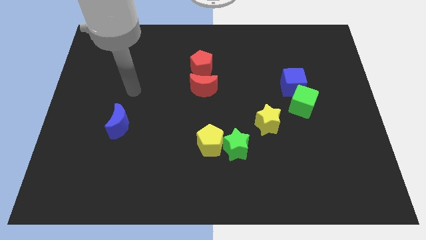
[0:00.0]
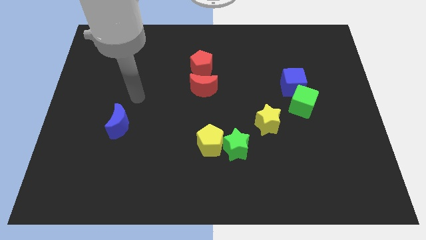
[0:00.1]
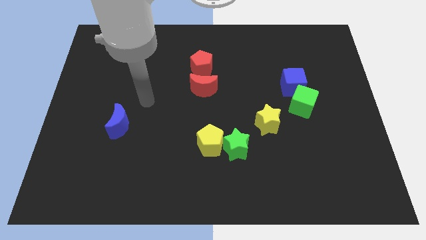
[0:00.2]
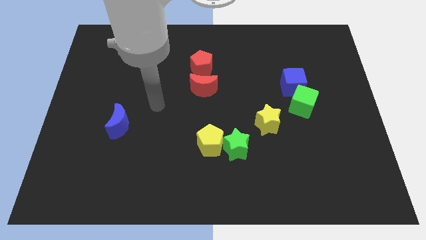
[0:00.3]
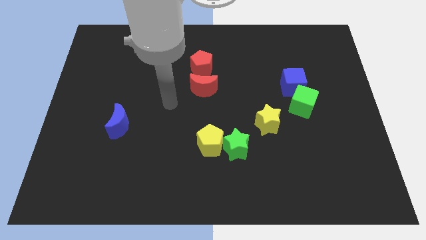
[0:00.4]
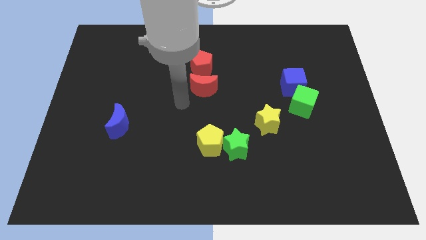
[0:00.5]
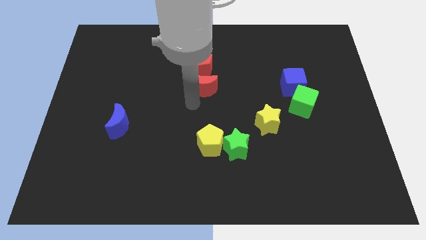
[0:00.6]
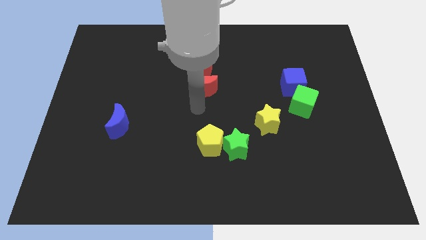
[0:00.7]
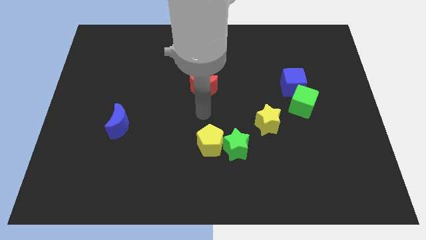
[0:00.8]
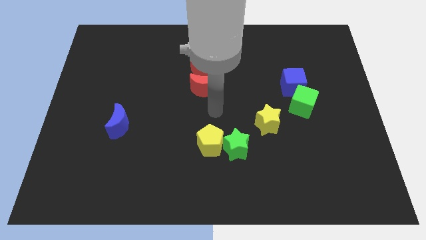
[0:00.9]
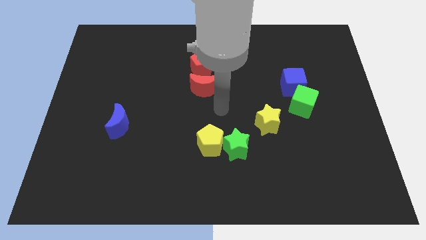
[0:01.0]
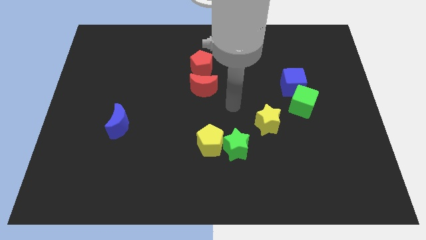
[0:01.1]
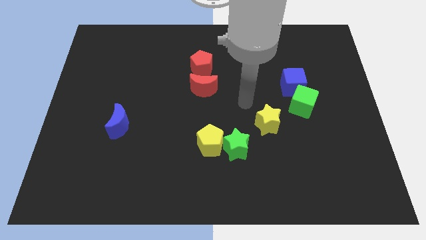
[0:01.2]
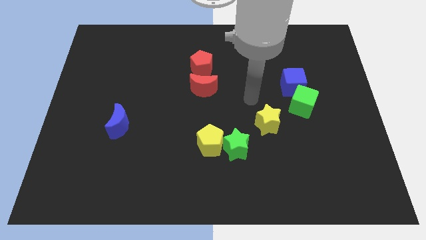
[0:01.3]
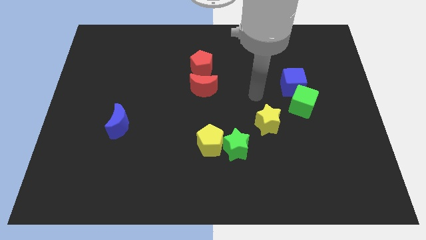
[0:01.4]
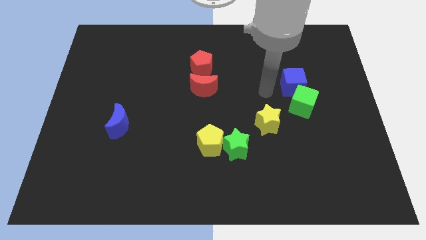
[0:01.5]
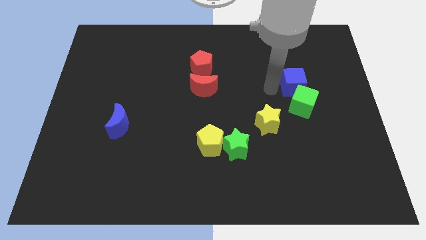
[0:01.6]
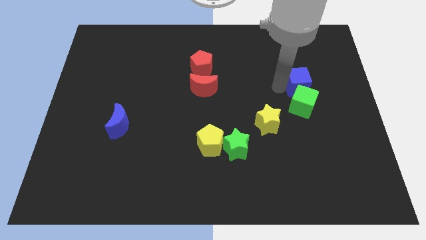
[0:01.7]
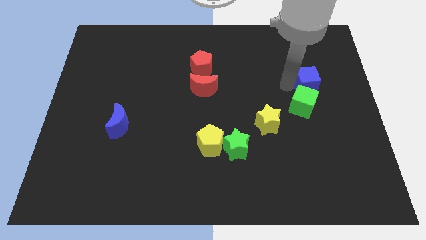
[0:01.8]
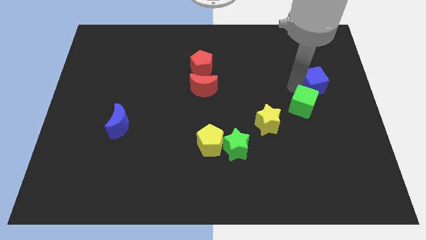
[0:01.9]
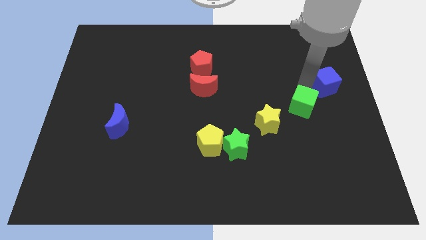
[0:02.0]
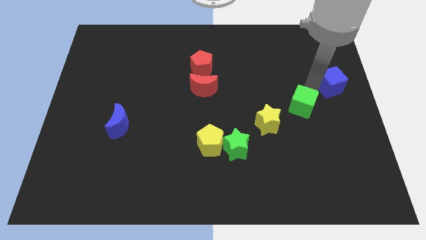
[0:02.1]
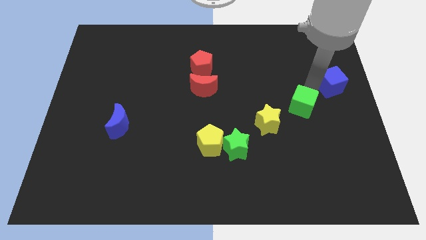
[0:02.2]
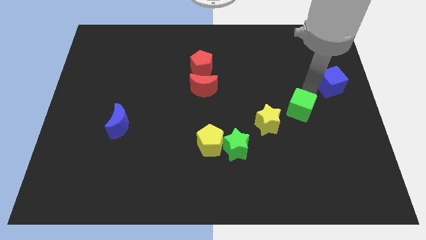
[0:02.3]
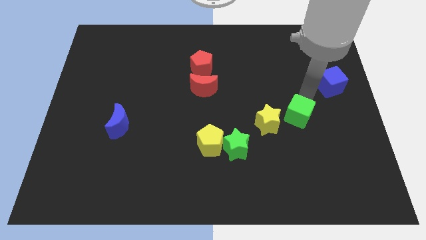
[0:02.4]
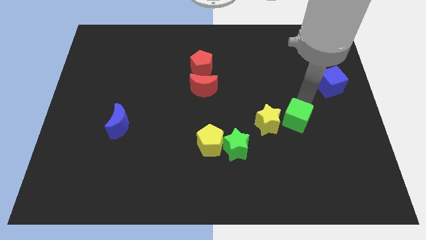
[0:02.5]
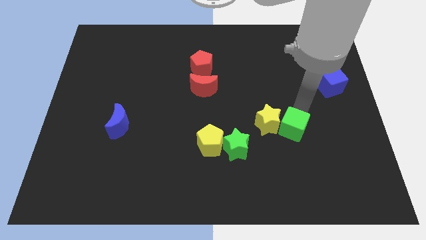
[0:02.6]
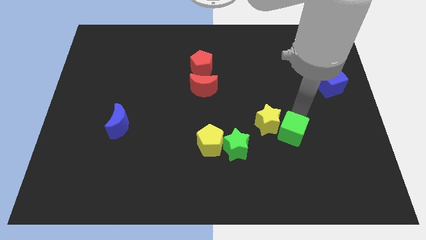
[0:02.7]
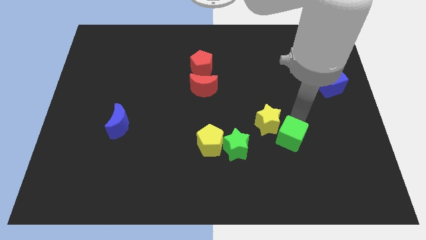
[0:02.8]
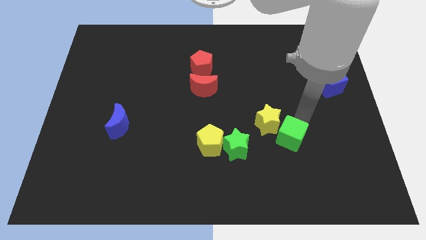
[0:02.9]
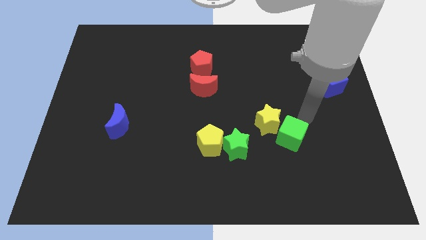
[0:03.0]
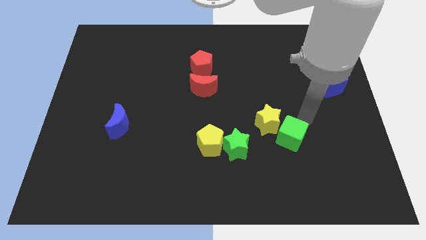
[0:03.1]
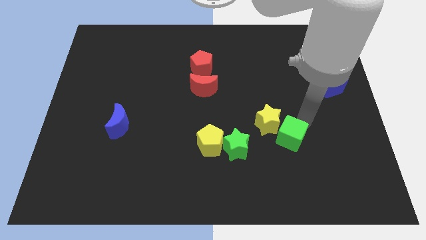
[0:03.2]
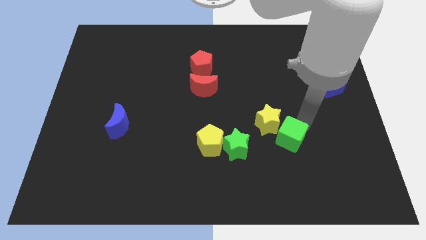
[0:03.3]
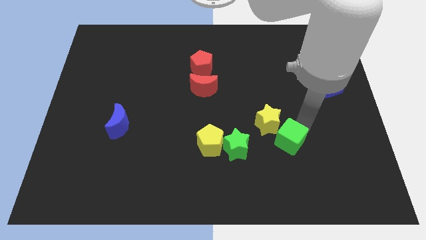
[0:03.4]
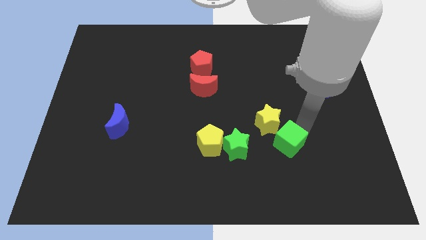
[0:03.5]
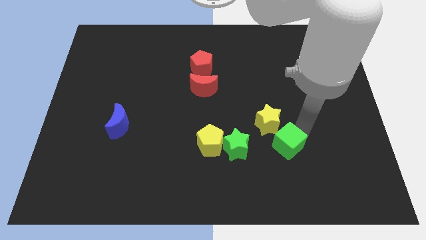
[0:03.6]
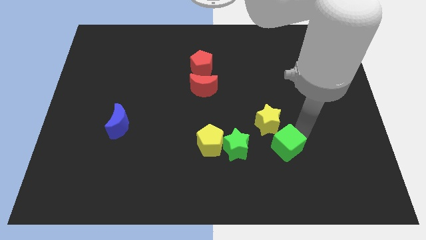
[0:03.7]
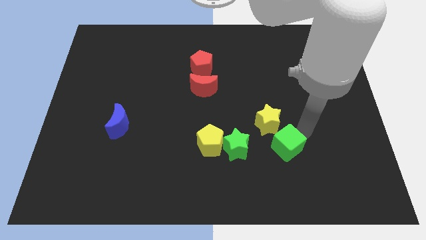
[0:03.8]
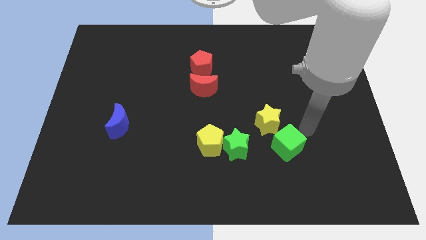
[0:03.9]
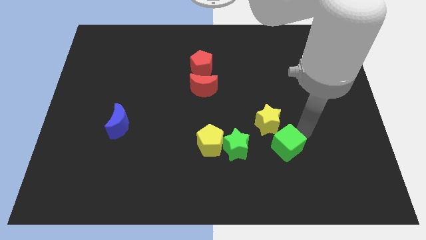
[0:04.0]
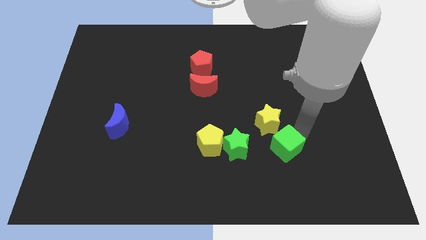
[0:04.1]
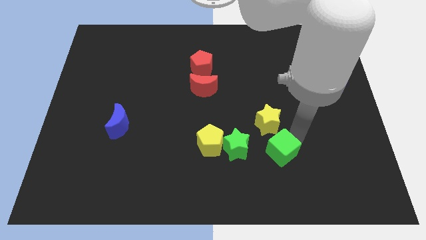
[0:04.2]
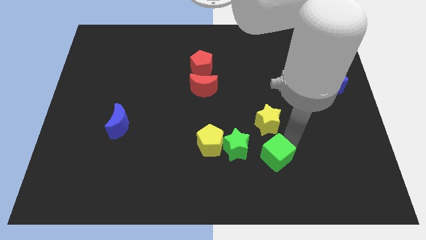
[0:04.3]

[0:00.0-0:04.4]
put the green cube diagonally down and to the right of the green star

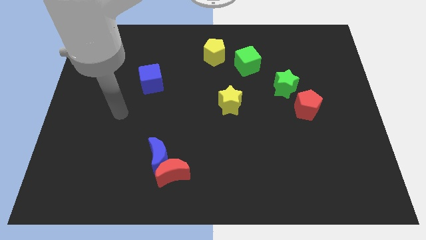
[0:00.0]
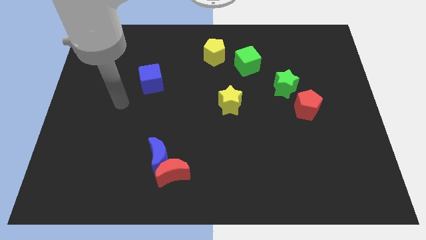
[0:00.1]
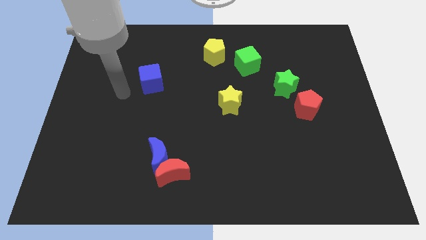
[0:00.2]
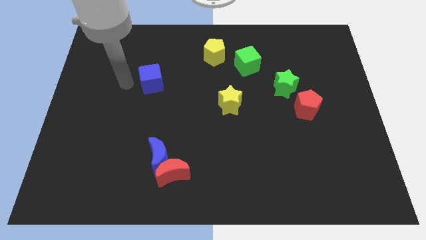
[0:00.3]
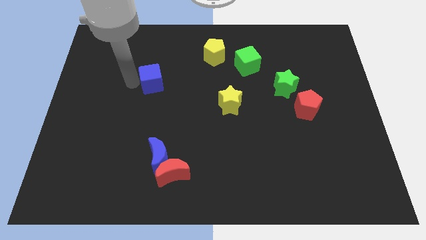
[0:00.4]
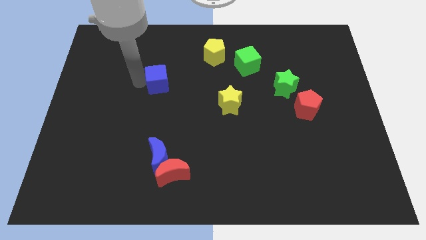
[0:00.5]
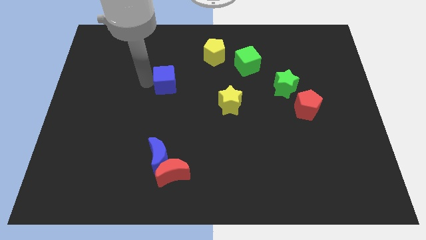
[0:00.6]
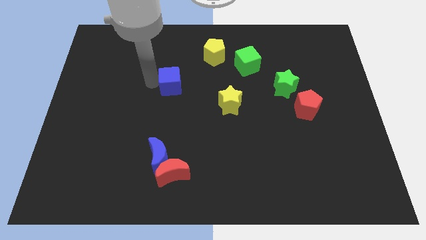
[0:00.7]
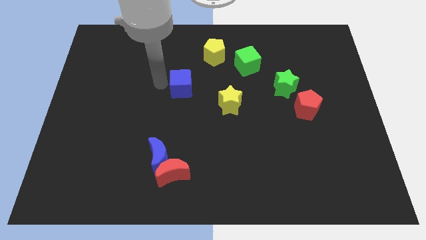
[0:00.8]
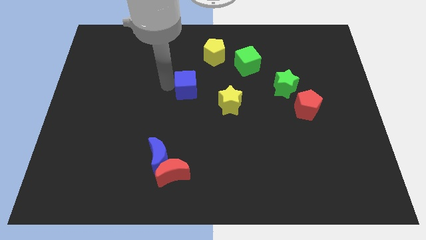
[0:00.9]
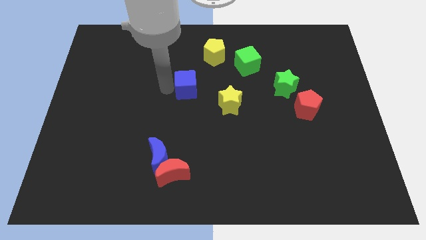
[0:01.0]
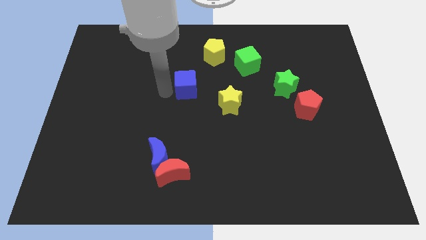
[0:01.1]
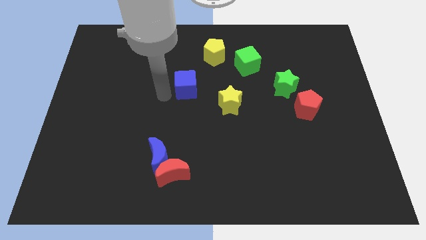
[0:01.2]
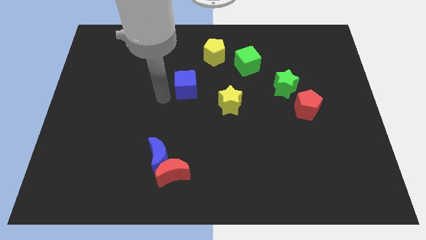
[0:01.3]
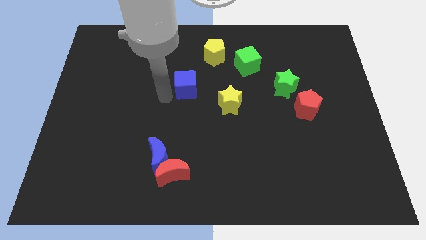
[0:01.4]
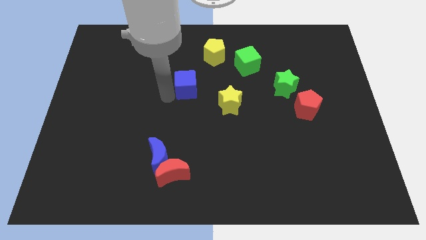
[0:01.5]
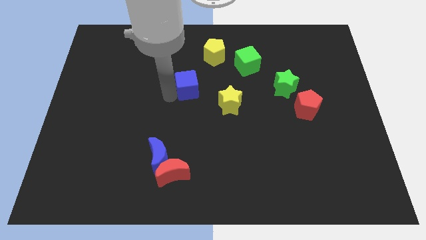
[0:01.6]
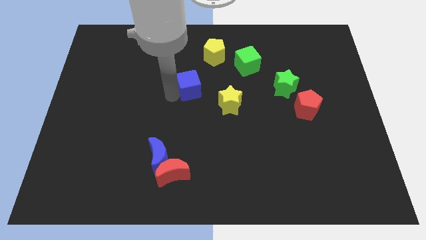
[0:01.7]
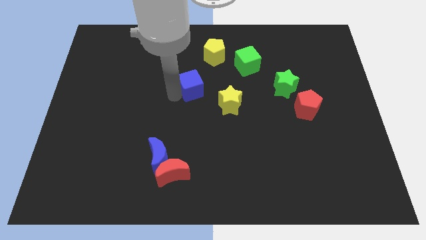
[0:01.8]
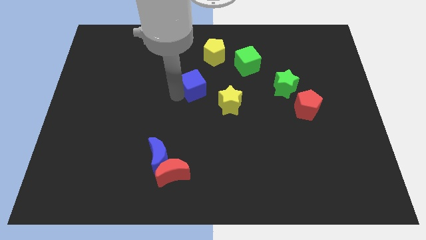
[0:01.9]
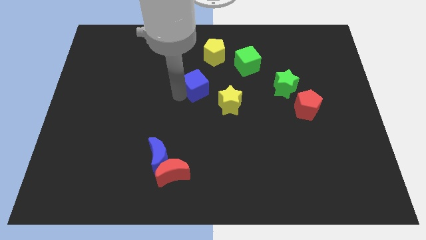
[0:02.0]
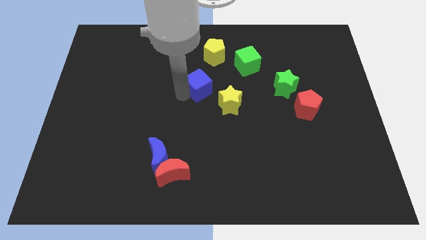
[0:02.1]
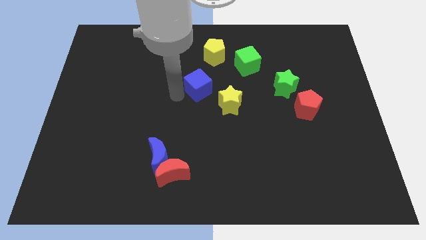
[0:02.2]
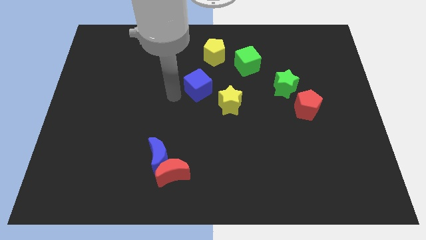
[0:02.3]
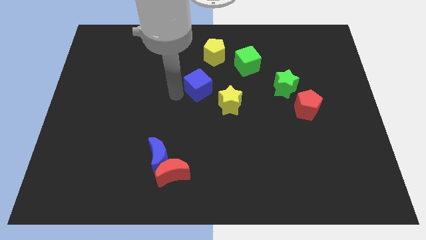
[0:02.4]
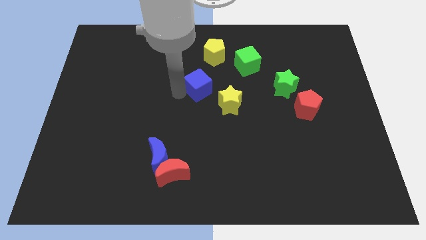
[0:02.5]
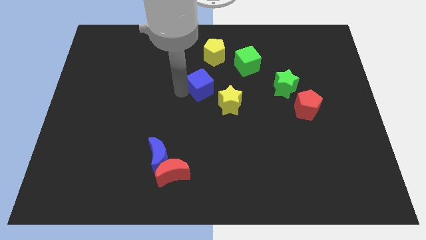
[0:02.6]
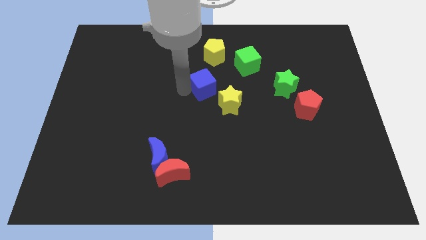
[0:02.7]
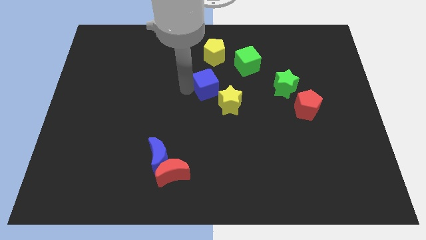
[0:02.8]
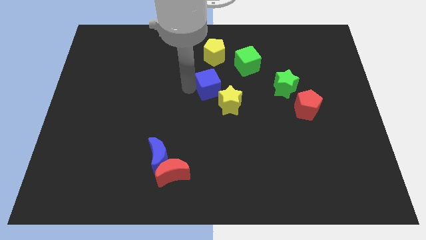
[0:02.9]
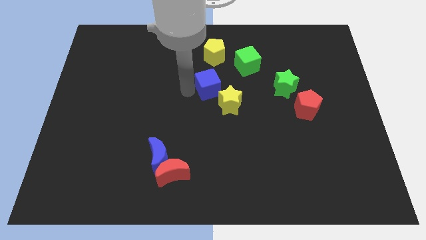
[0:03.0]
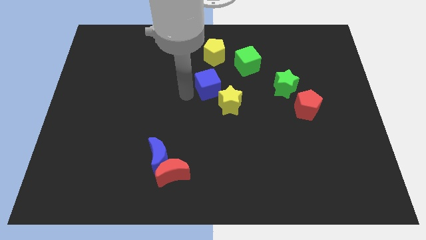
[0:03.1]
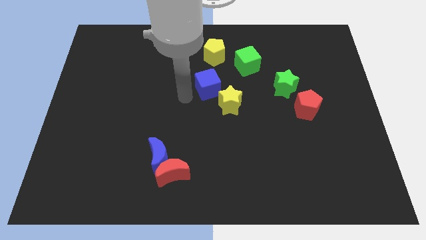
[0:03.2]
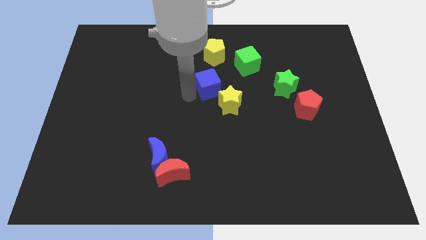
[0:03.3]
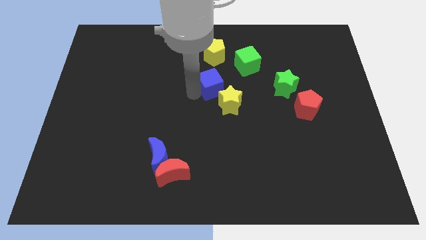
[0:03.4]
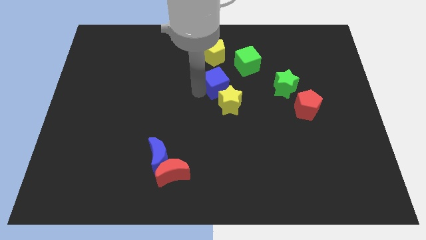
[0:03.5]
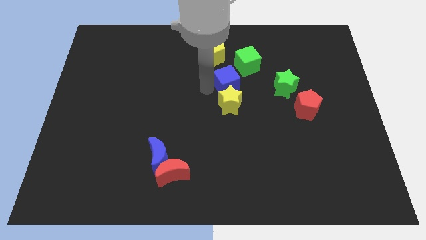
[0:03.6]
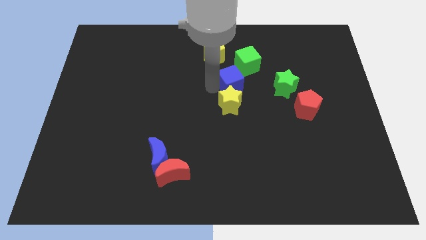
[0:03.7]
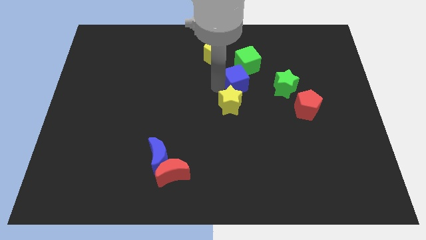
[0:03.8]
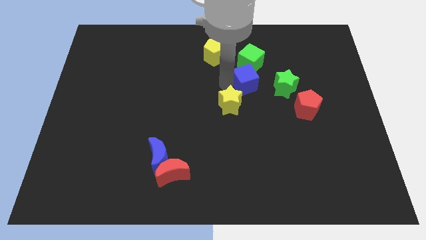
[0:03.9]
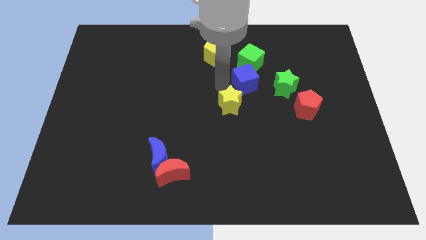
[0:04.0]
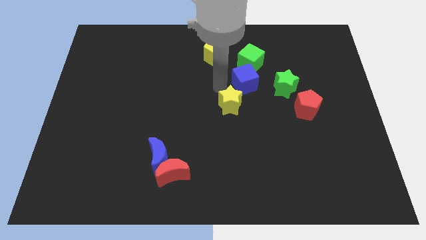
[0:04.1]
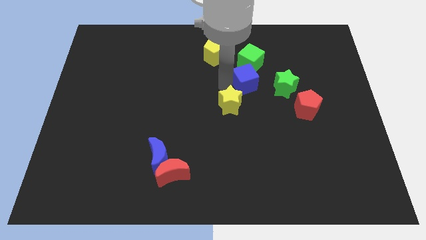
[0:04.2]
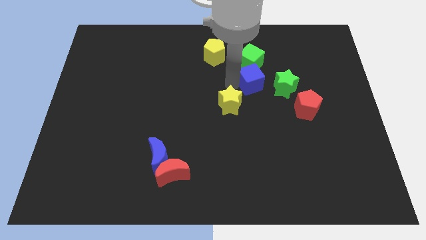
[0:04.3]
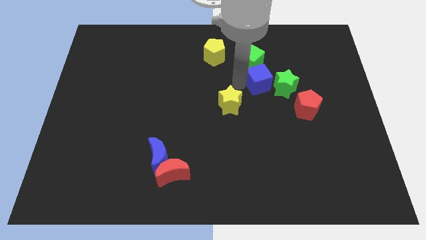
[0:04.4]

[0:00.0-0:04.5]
slide the blue cube diagonally down and to the right of the green cube
